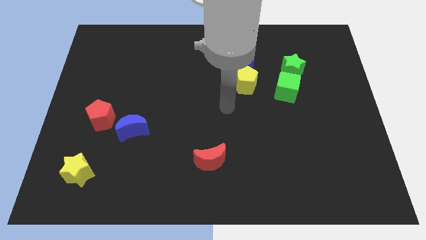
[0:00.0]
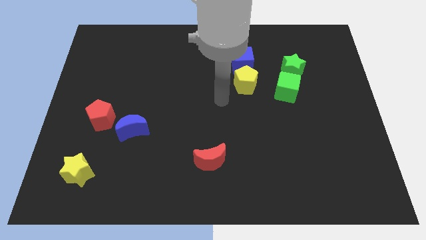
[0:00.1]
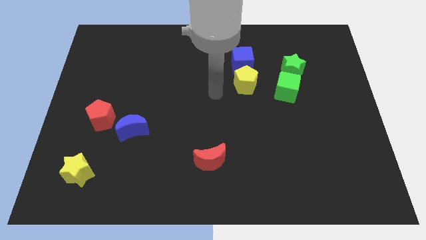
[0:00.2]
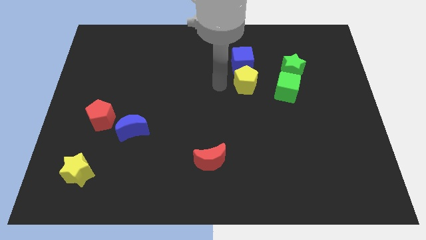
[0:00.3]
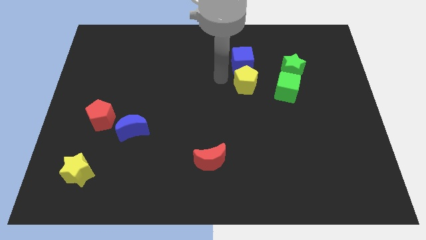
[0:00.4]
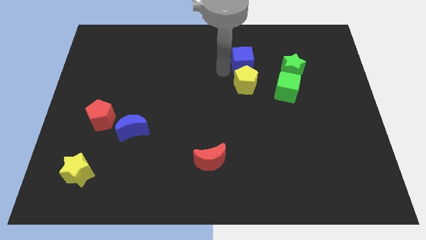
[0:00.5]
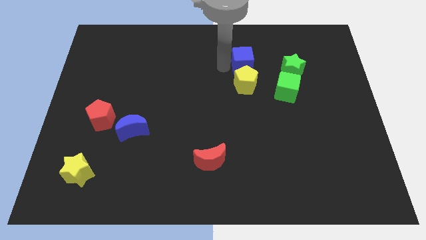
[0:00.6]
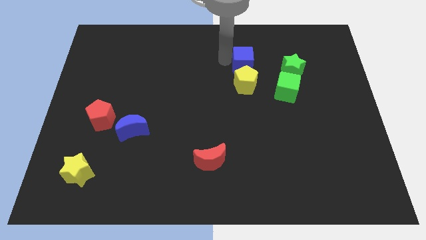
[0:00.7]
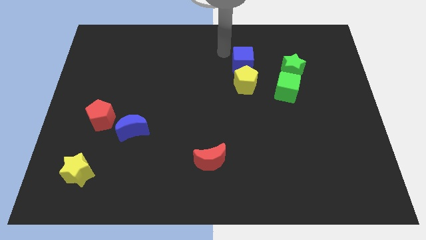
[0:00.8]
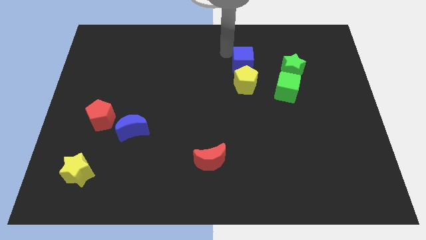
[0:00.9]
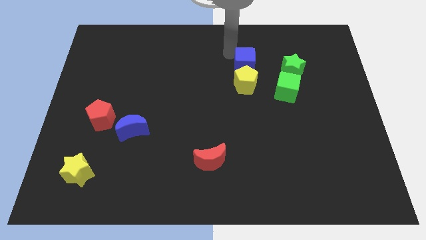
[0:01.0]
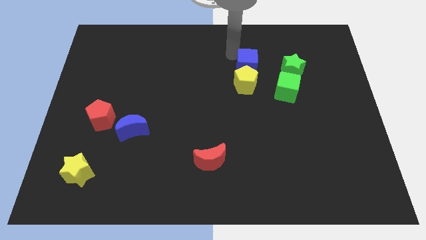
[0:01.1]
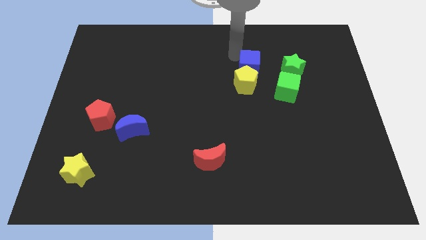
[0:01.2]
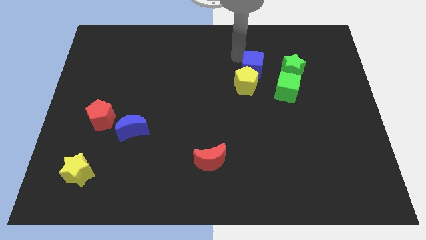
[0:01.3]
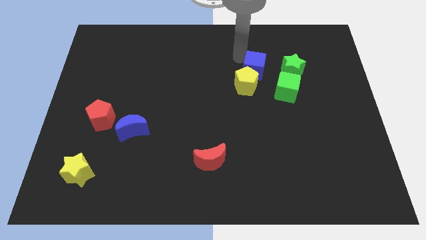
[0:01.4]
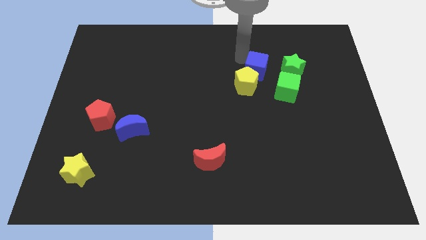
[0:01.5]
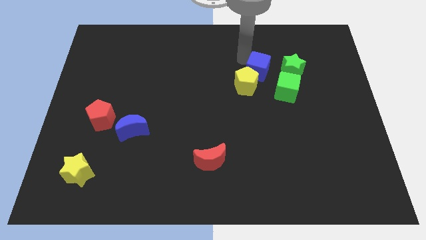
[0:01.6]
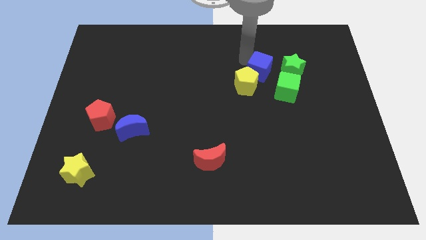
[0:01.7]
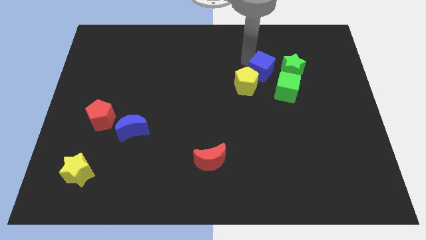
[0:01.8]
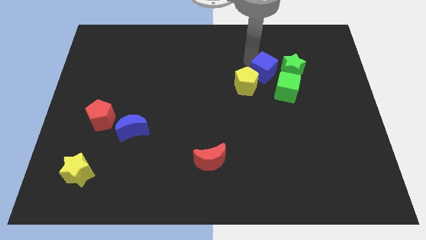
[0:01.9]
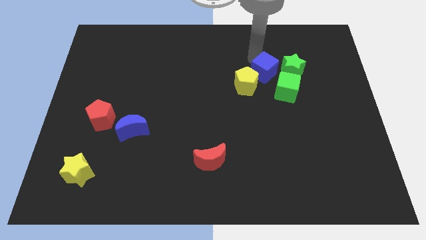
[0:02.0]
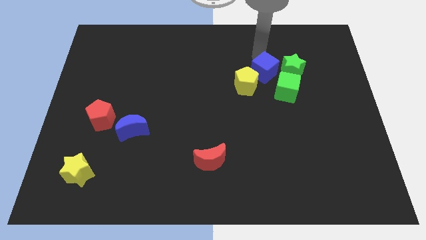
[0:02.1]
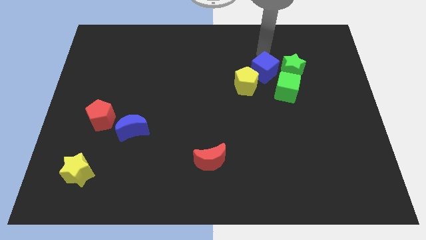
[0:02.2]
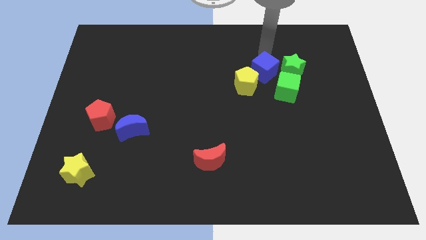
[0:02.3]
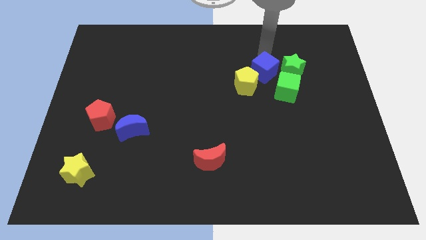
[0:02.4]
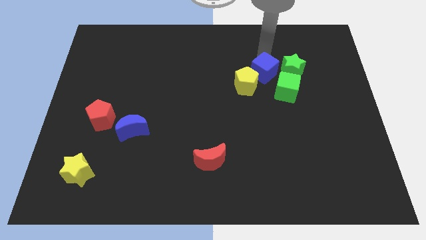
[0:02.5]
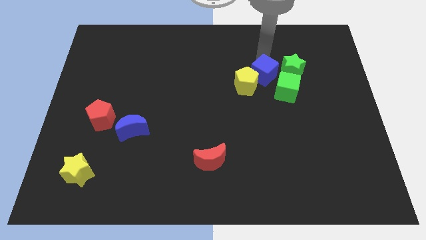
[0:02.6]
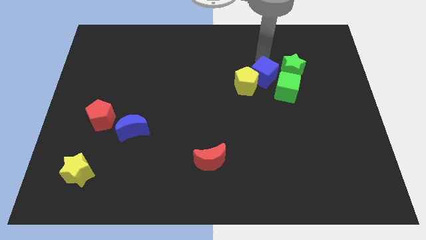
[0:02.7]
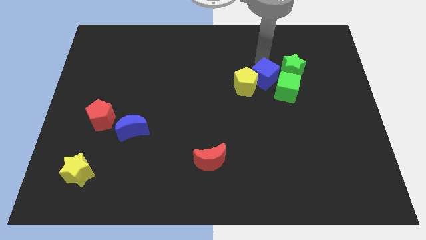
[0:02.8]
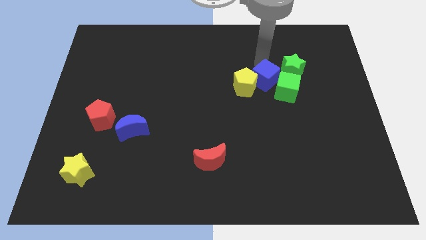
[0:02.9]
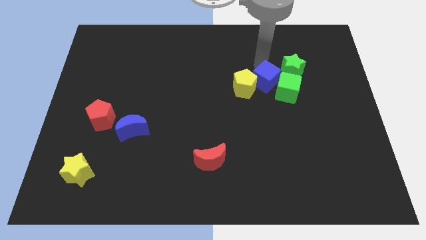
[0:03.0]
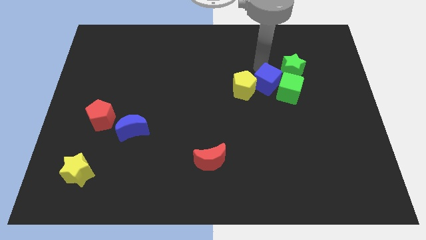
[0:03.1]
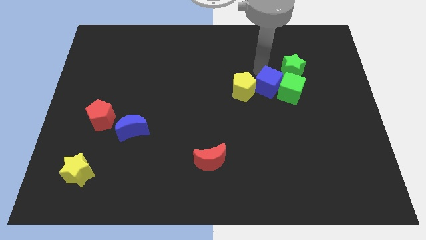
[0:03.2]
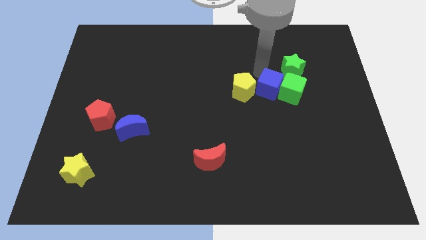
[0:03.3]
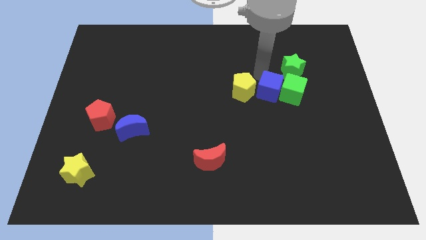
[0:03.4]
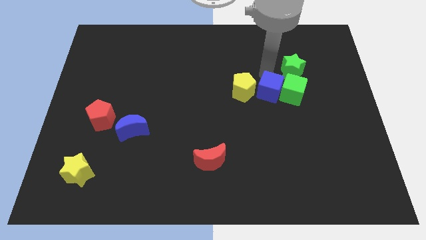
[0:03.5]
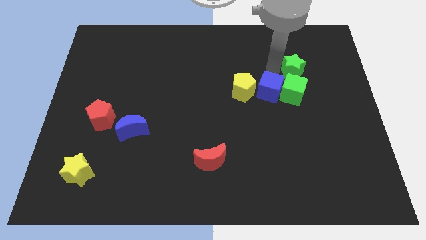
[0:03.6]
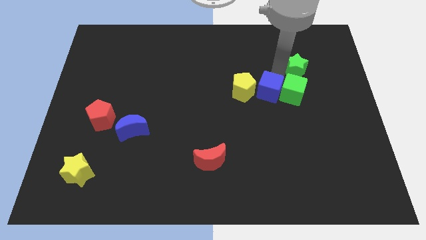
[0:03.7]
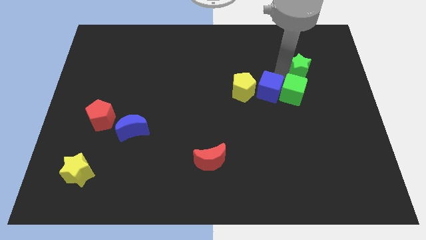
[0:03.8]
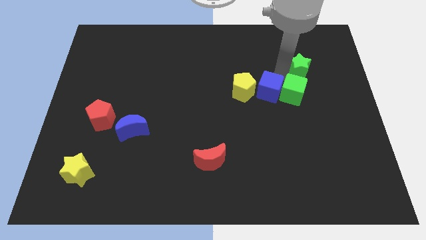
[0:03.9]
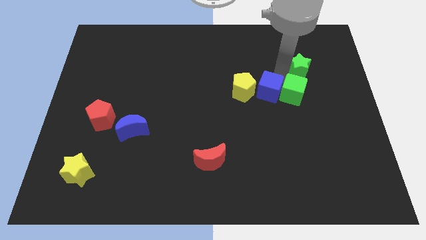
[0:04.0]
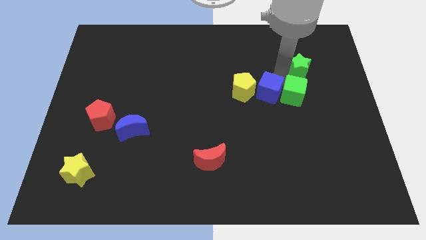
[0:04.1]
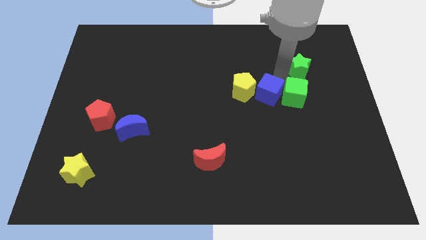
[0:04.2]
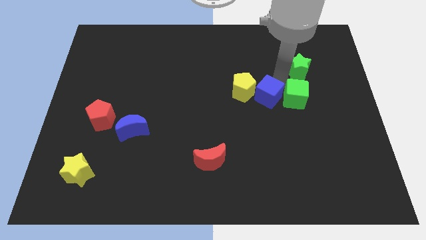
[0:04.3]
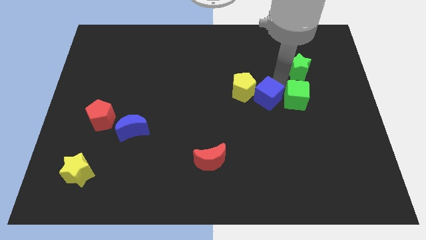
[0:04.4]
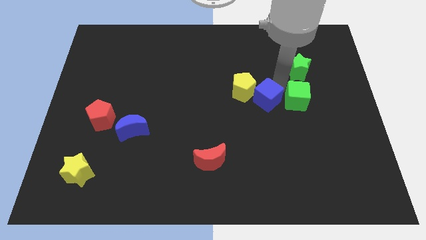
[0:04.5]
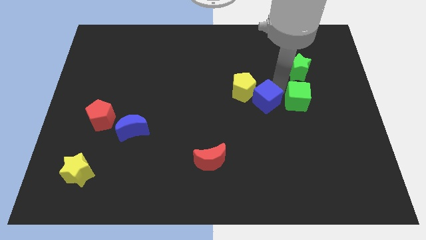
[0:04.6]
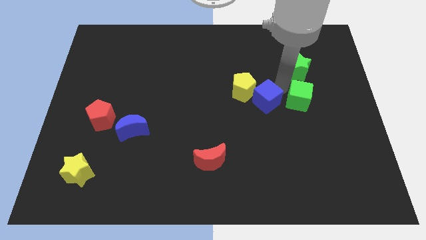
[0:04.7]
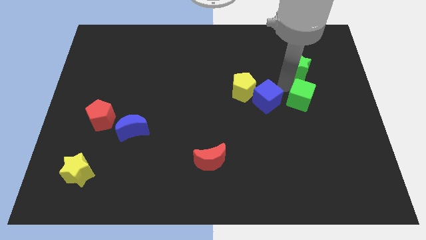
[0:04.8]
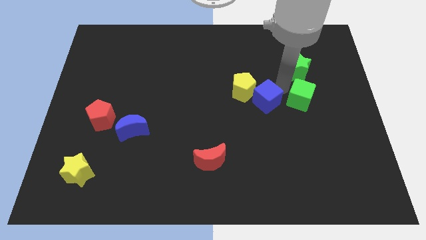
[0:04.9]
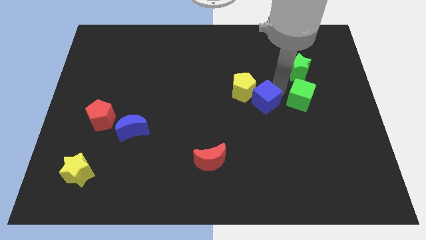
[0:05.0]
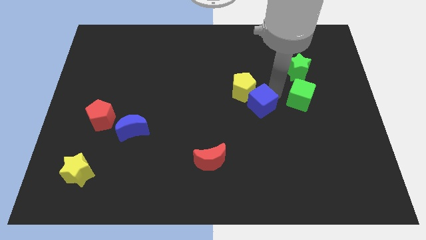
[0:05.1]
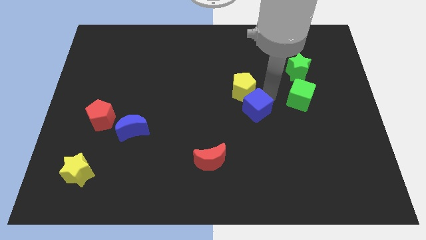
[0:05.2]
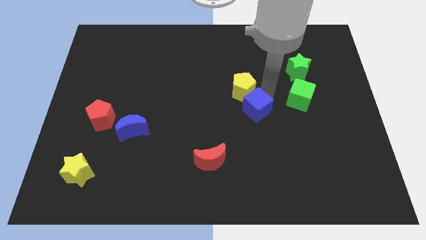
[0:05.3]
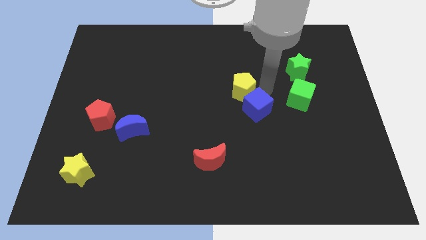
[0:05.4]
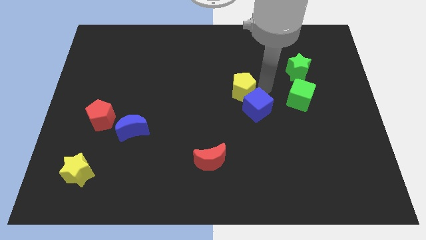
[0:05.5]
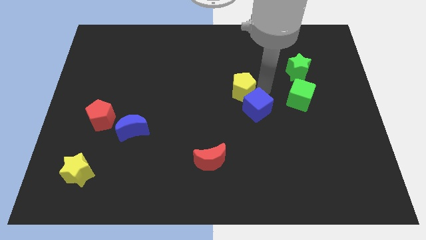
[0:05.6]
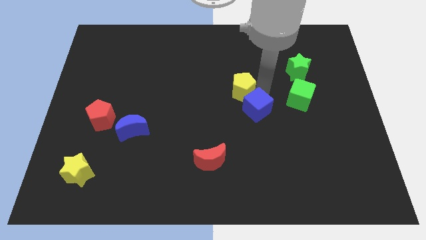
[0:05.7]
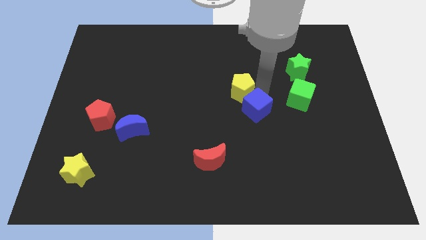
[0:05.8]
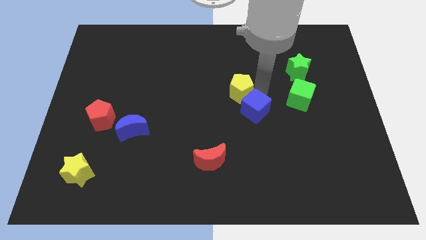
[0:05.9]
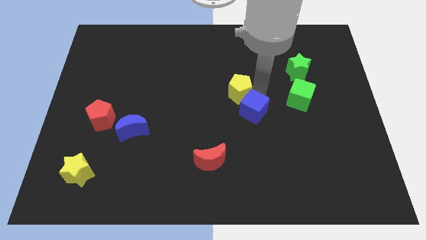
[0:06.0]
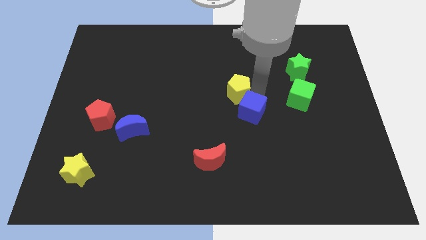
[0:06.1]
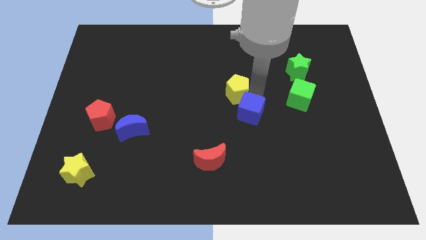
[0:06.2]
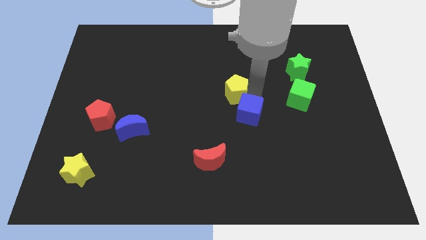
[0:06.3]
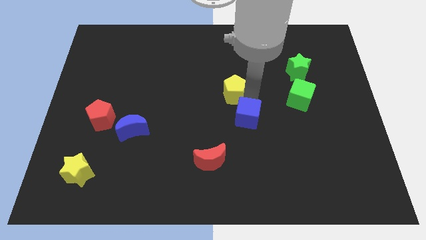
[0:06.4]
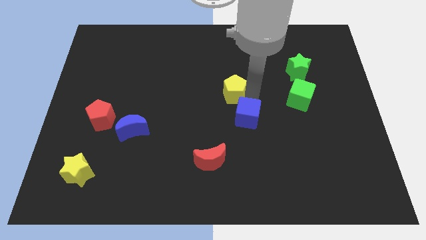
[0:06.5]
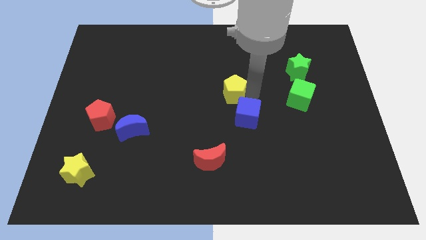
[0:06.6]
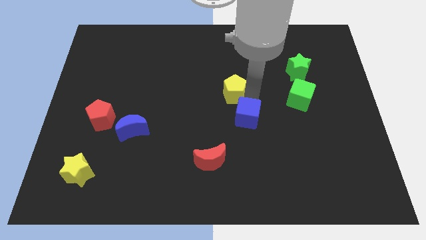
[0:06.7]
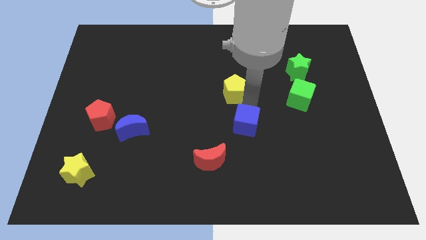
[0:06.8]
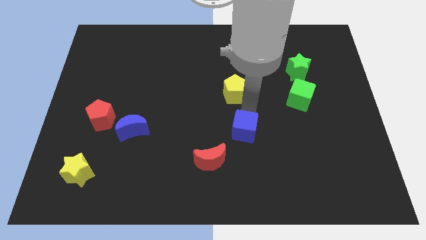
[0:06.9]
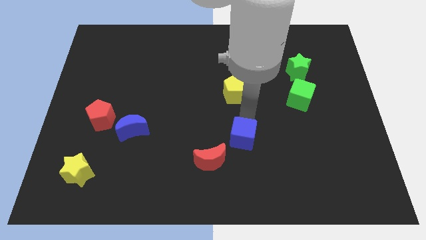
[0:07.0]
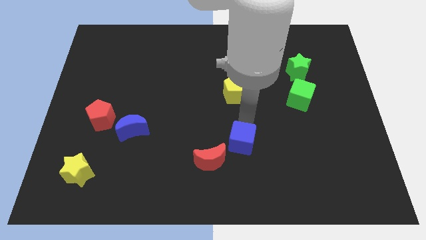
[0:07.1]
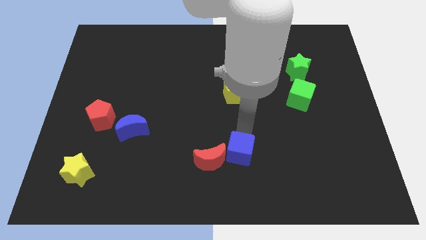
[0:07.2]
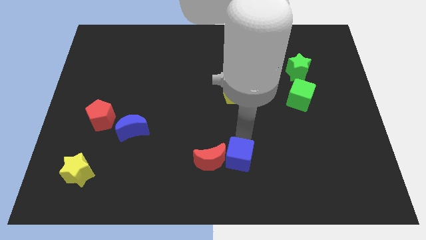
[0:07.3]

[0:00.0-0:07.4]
push the blue cube to the bottom
